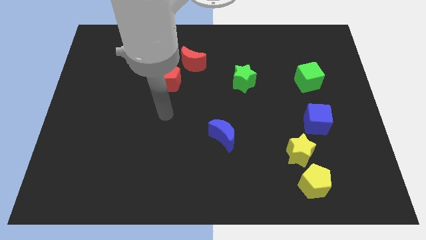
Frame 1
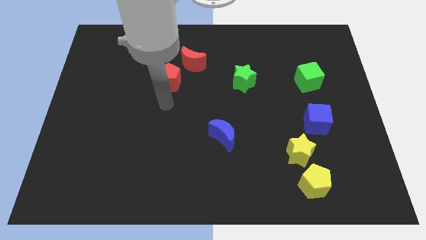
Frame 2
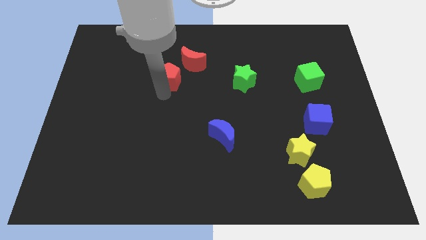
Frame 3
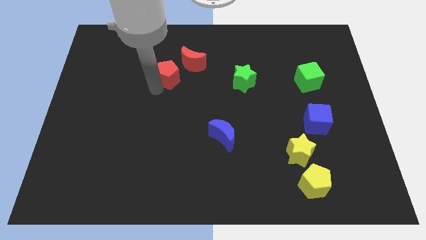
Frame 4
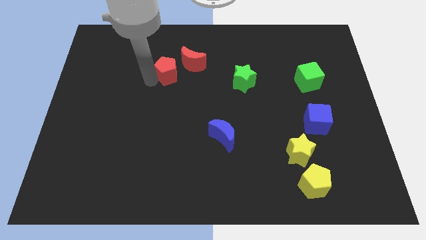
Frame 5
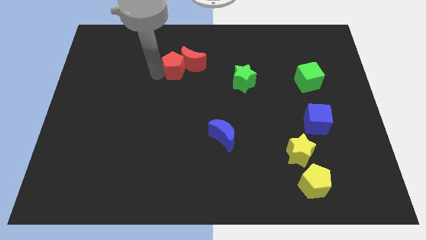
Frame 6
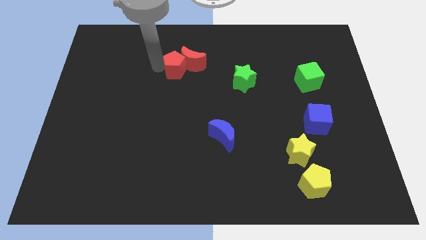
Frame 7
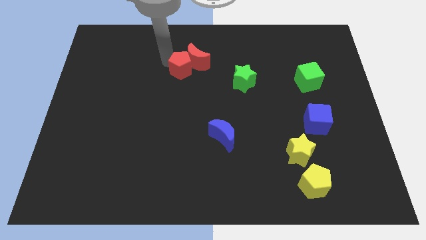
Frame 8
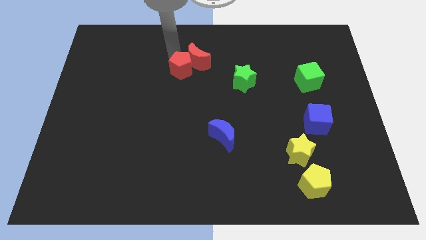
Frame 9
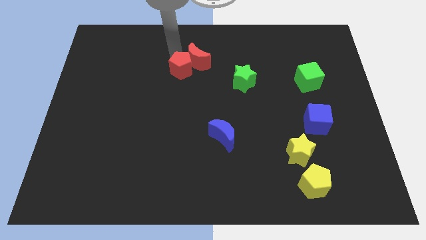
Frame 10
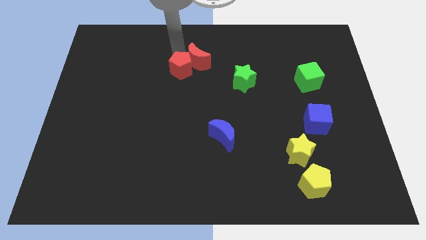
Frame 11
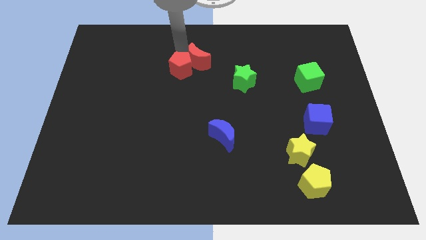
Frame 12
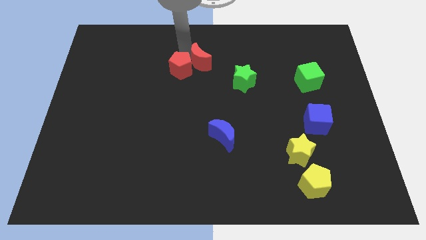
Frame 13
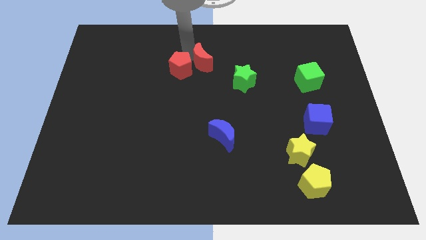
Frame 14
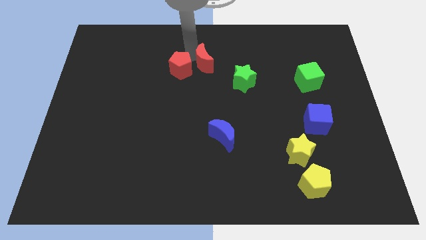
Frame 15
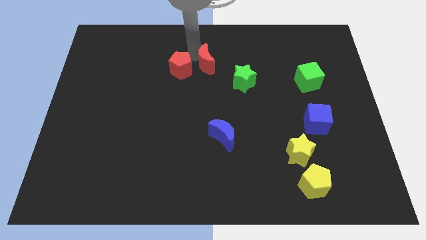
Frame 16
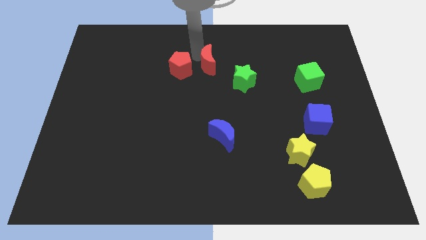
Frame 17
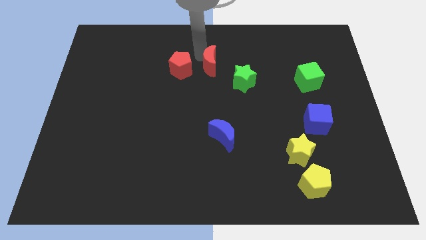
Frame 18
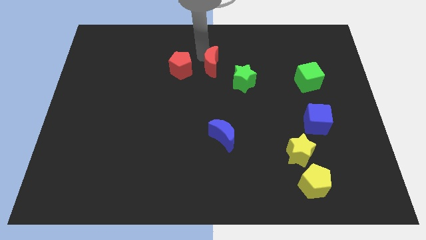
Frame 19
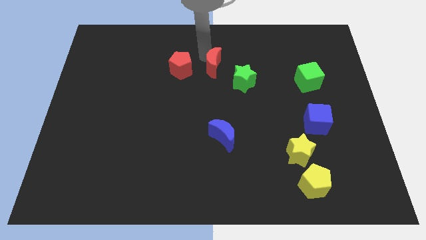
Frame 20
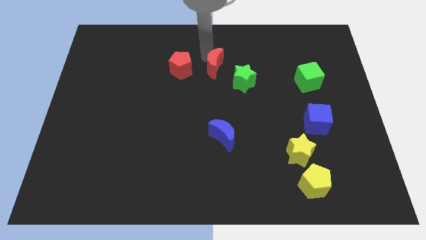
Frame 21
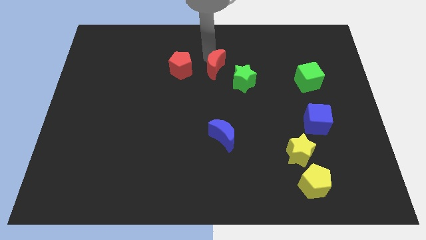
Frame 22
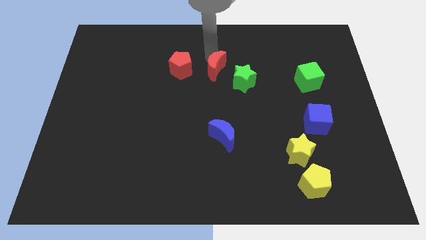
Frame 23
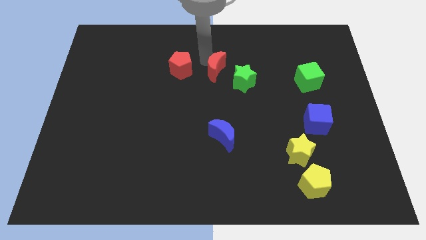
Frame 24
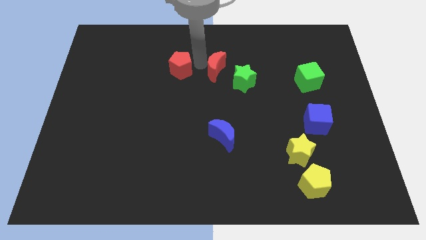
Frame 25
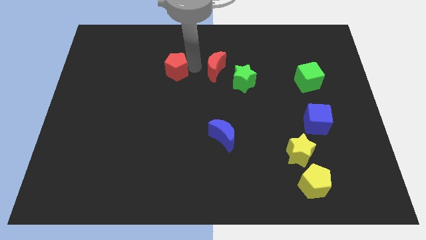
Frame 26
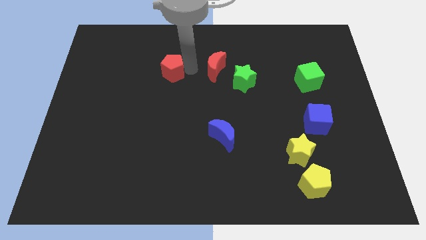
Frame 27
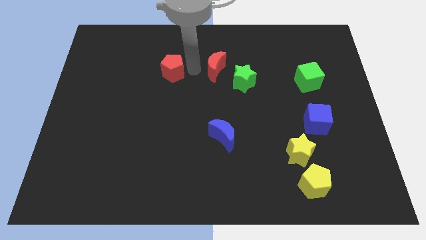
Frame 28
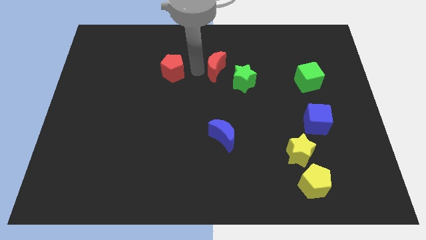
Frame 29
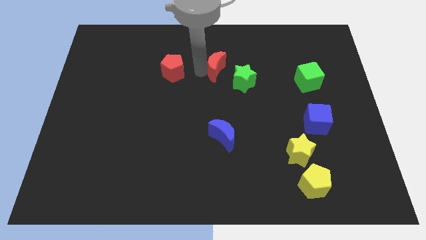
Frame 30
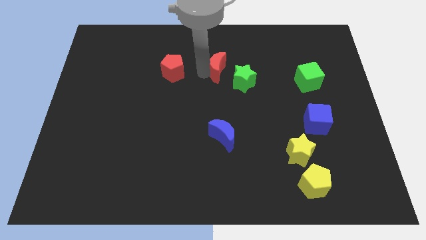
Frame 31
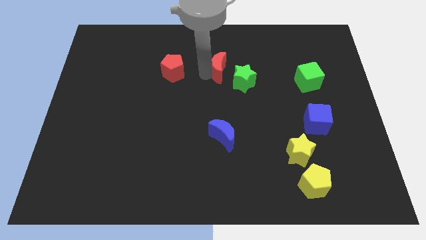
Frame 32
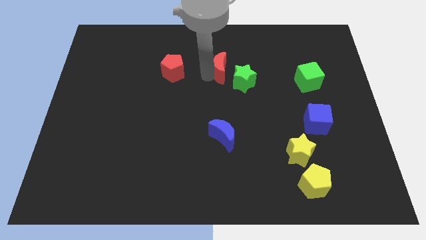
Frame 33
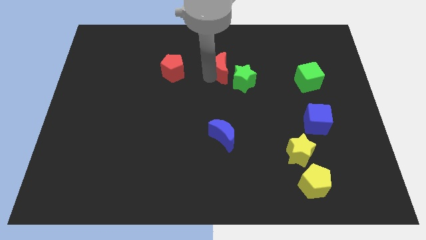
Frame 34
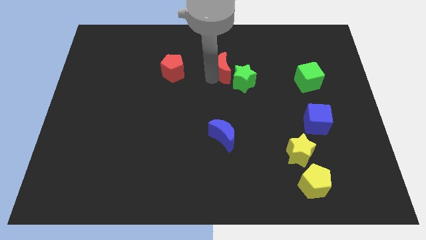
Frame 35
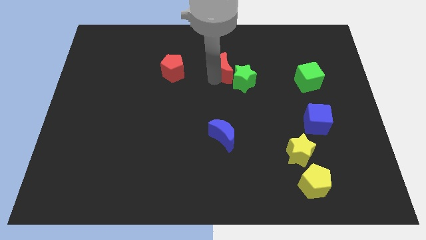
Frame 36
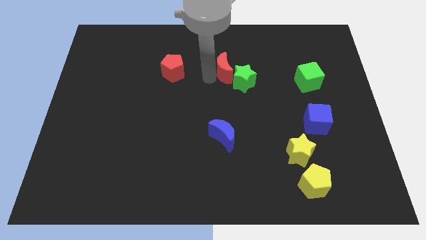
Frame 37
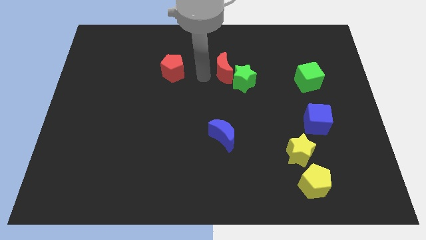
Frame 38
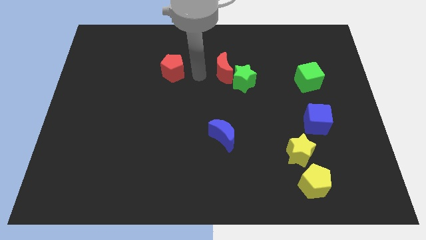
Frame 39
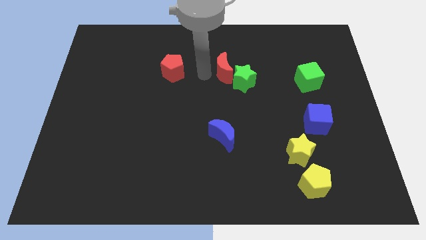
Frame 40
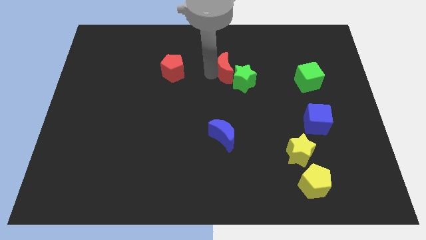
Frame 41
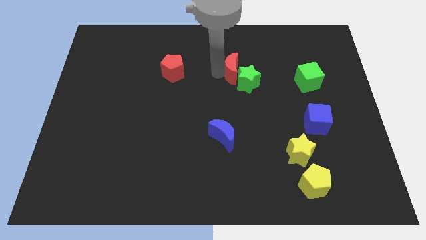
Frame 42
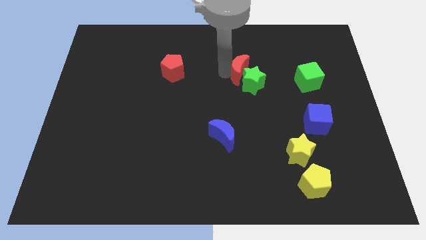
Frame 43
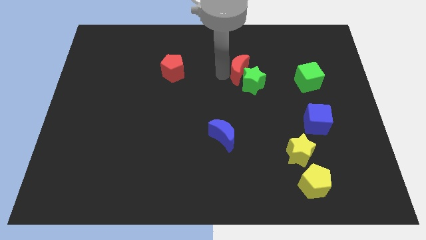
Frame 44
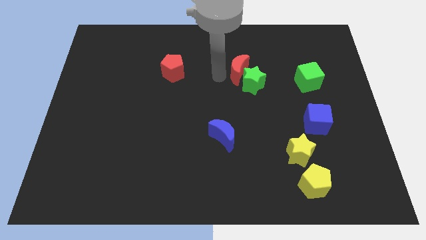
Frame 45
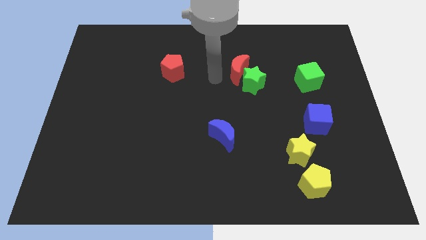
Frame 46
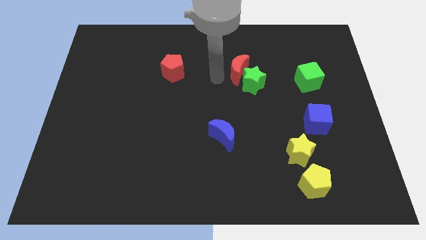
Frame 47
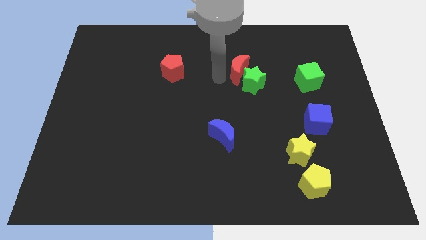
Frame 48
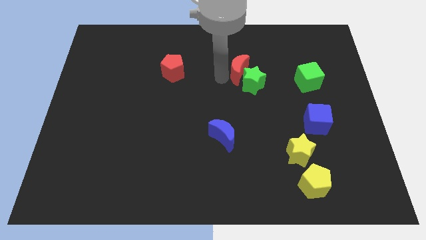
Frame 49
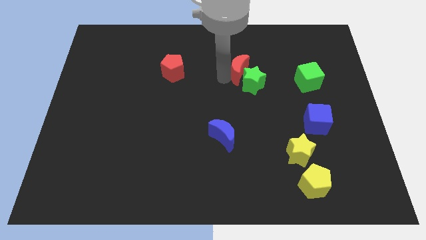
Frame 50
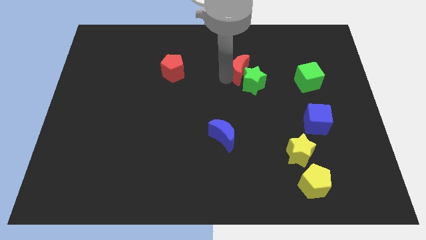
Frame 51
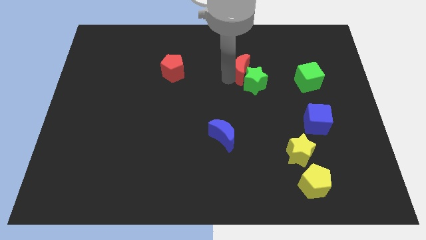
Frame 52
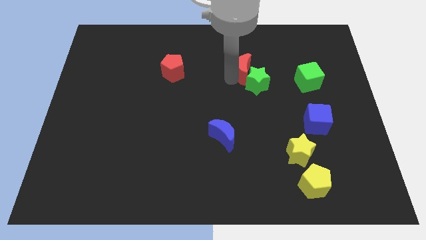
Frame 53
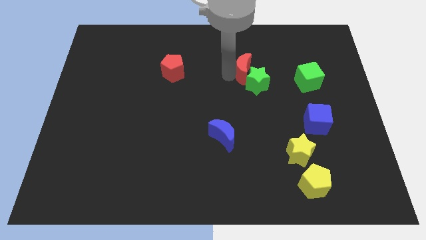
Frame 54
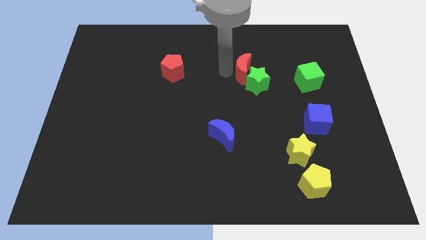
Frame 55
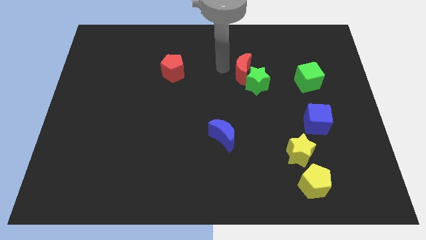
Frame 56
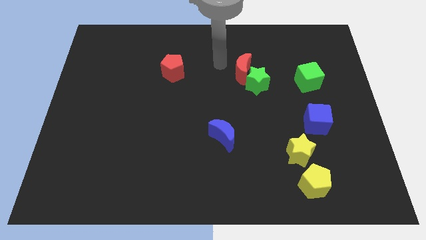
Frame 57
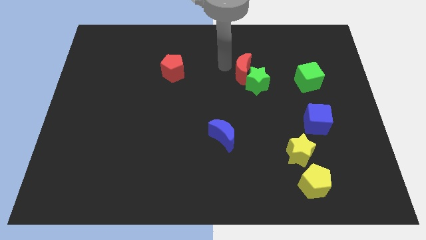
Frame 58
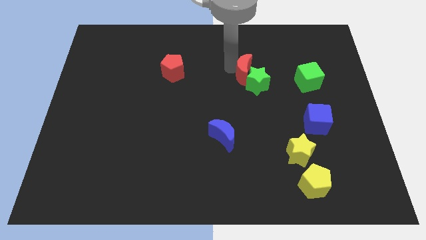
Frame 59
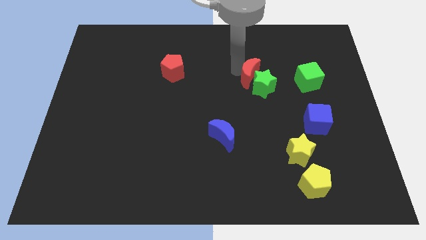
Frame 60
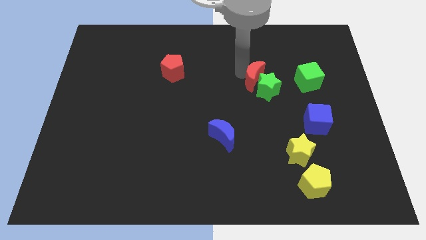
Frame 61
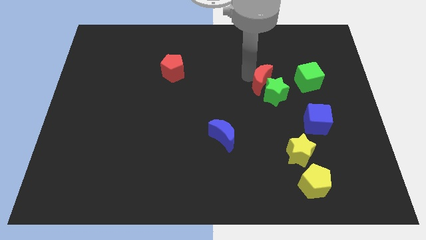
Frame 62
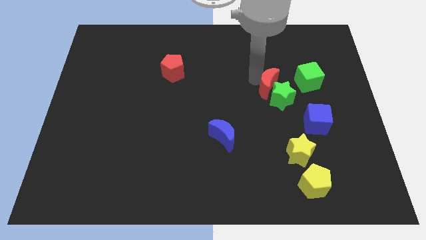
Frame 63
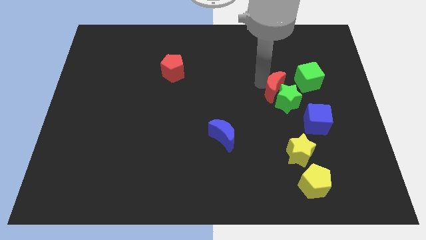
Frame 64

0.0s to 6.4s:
slide the red moon to the bottom left side of the green cube
